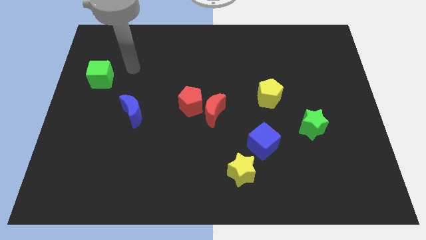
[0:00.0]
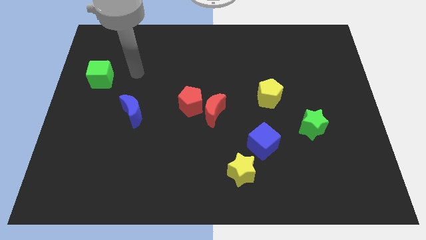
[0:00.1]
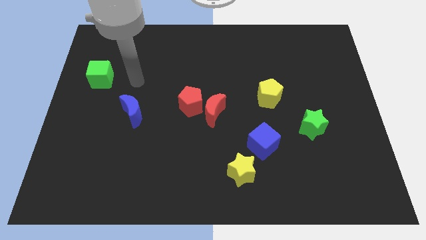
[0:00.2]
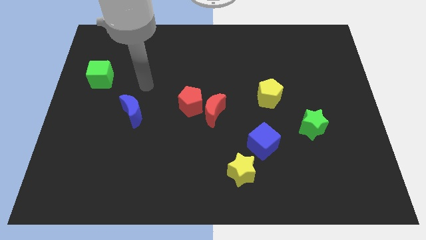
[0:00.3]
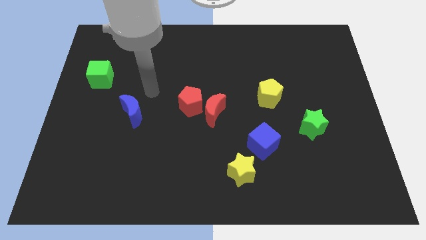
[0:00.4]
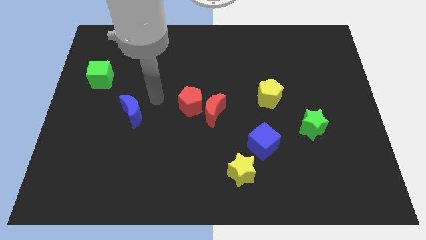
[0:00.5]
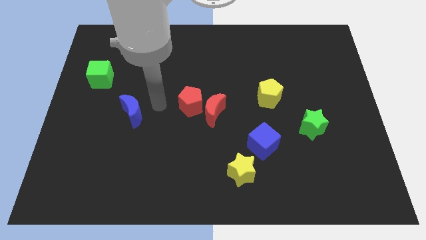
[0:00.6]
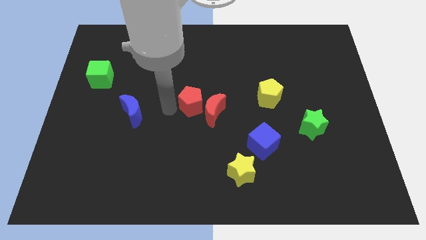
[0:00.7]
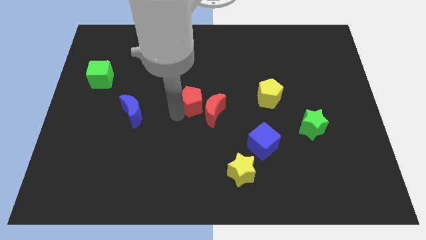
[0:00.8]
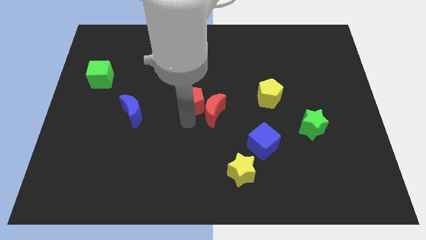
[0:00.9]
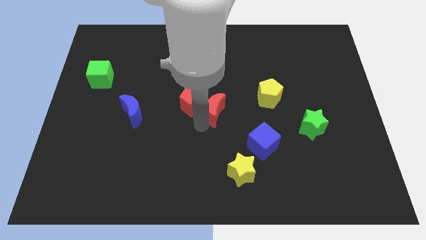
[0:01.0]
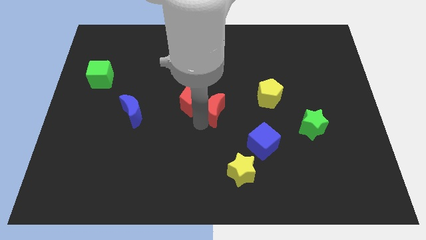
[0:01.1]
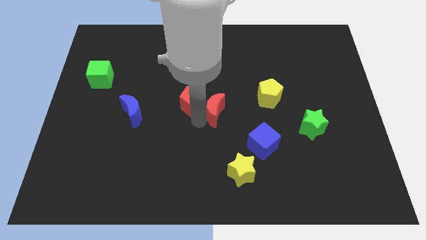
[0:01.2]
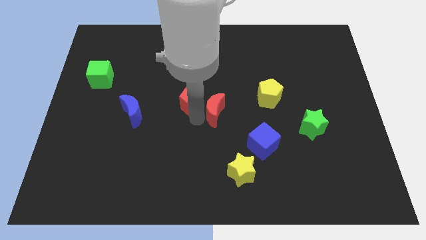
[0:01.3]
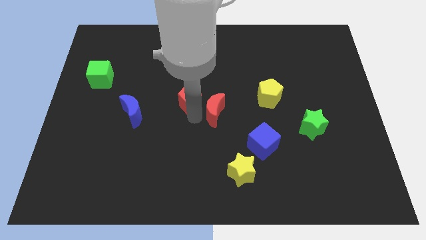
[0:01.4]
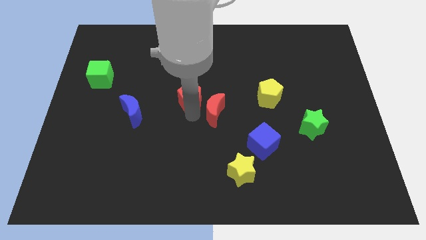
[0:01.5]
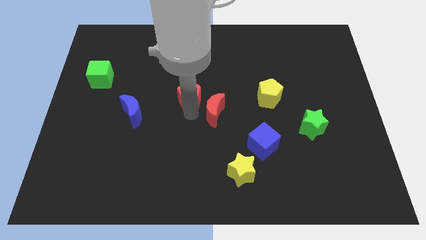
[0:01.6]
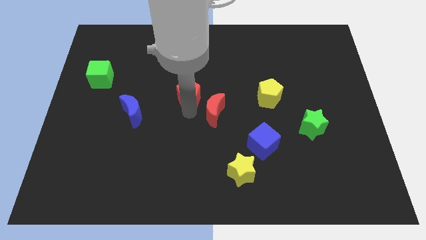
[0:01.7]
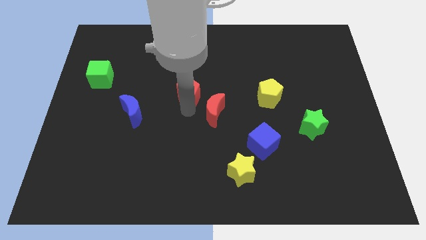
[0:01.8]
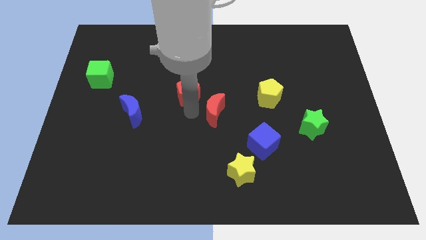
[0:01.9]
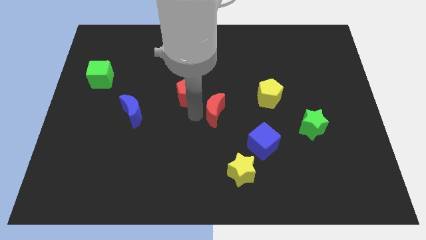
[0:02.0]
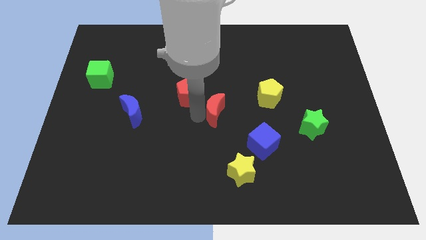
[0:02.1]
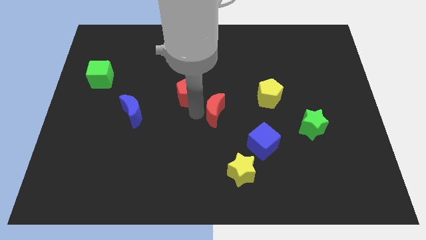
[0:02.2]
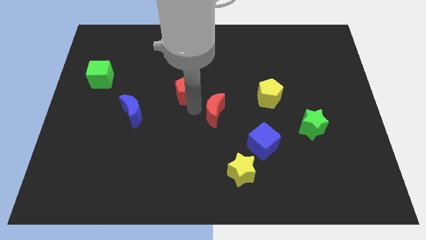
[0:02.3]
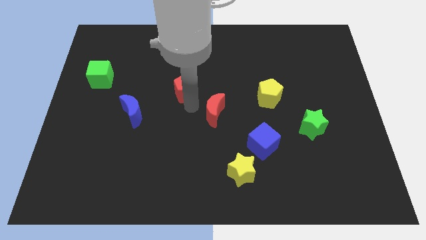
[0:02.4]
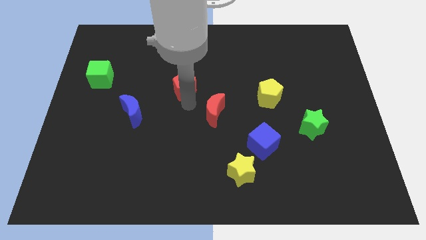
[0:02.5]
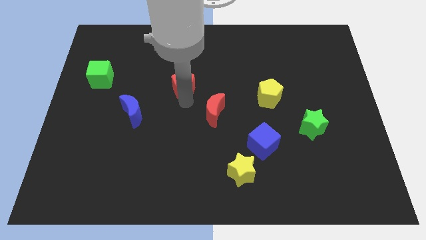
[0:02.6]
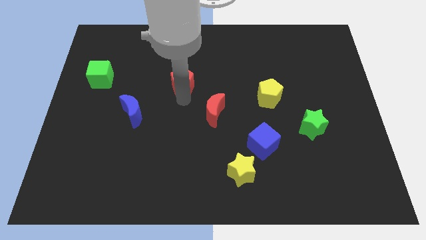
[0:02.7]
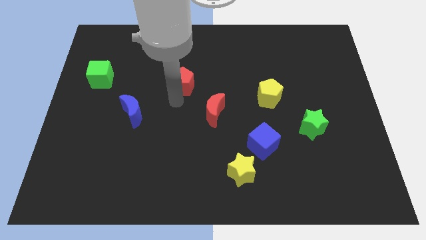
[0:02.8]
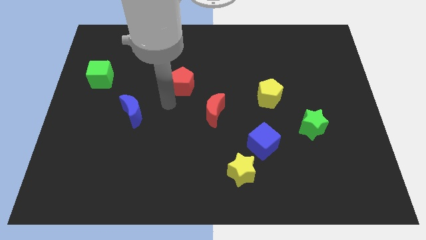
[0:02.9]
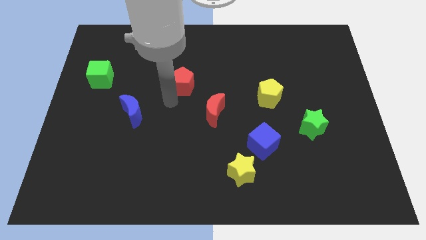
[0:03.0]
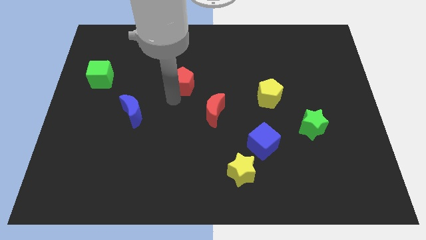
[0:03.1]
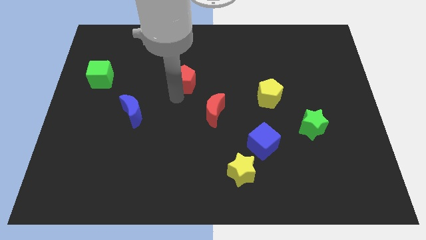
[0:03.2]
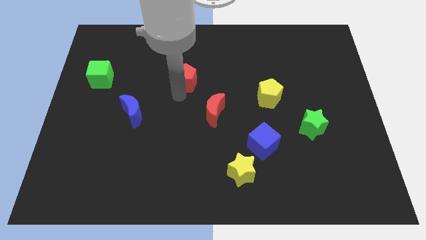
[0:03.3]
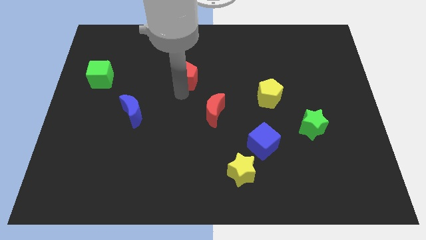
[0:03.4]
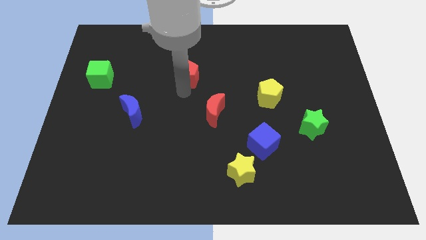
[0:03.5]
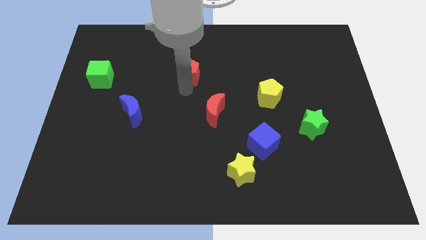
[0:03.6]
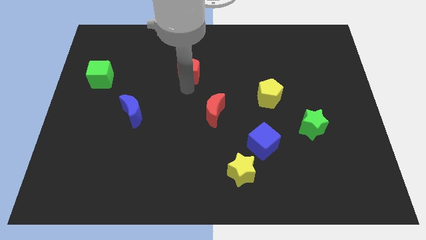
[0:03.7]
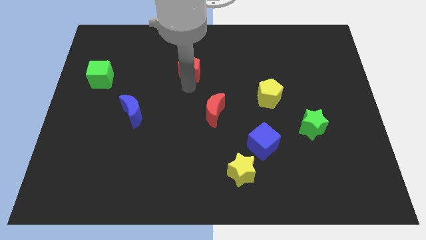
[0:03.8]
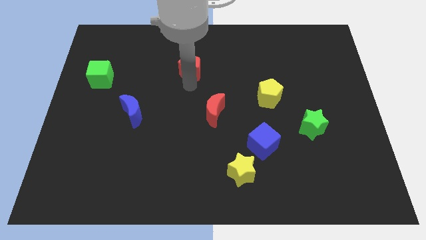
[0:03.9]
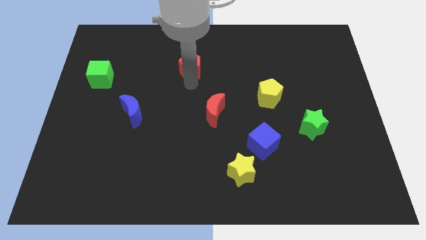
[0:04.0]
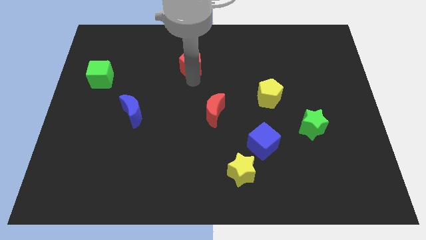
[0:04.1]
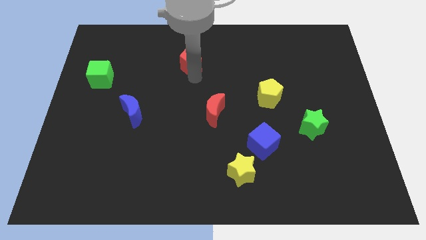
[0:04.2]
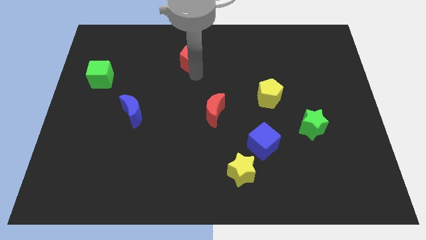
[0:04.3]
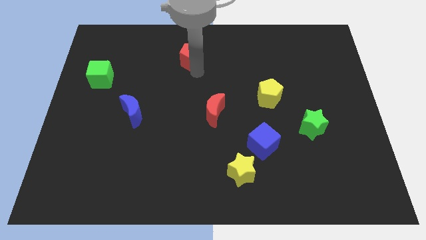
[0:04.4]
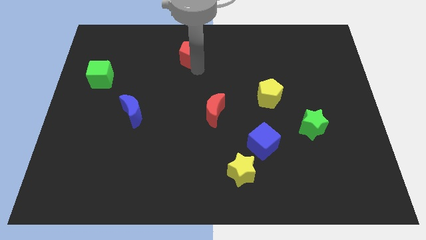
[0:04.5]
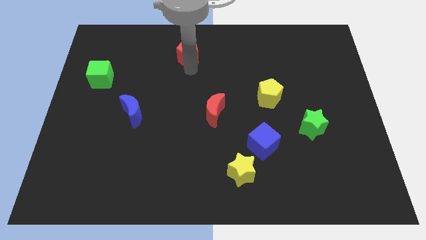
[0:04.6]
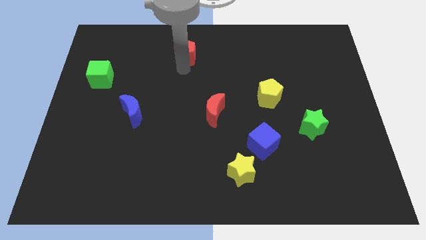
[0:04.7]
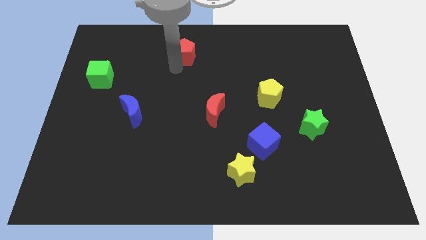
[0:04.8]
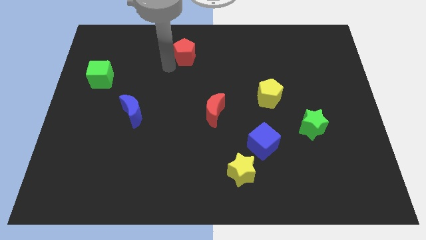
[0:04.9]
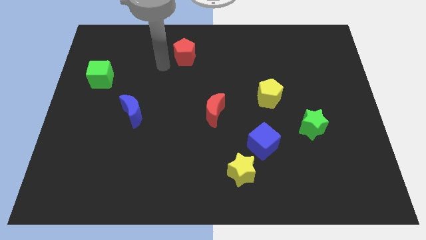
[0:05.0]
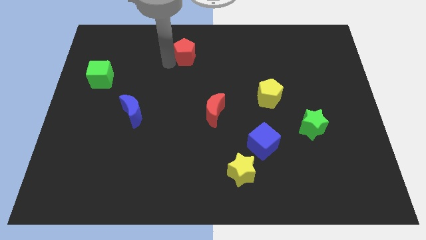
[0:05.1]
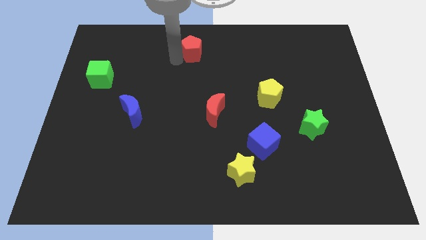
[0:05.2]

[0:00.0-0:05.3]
push the red pentagon to the top side

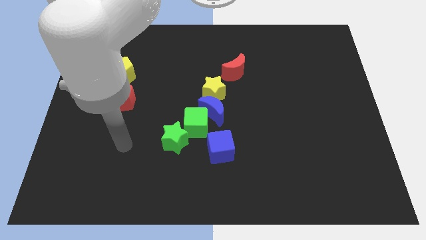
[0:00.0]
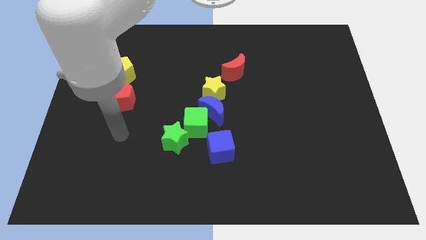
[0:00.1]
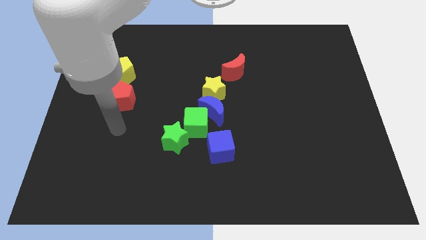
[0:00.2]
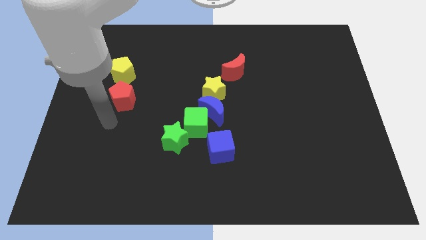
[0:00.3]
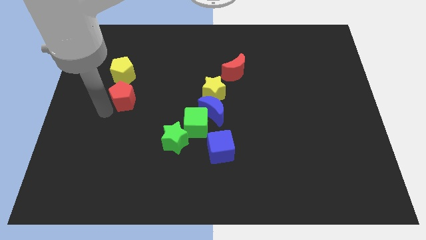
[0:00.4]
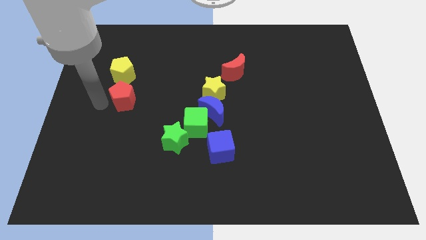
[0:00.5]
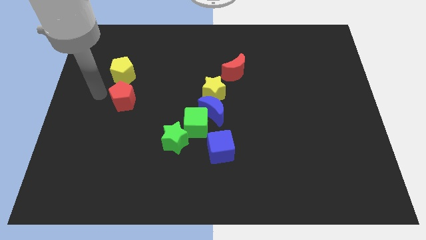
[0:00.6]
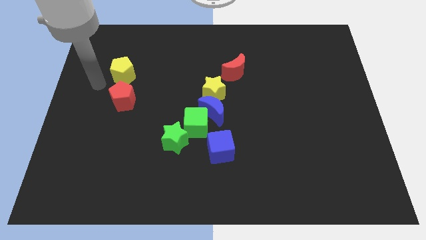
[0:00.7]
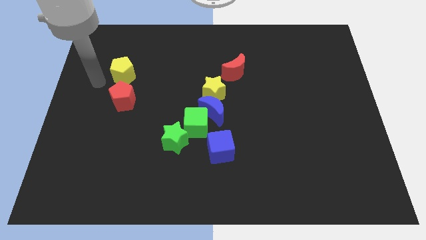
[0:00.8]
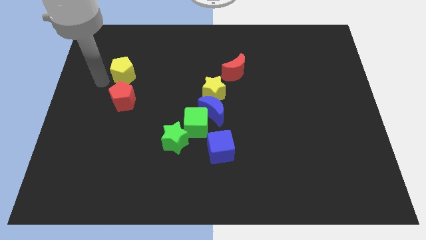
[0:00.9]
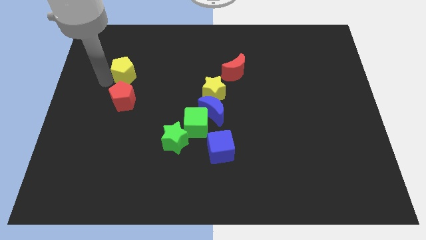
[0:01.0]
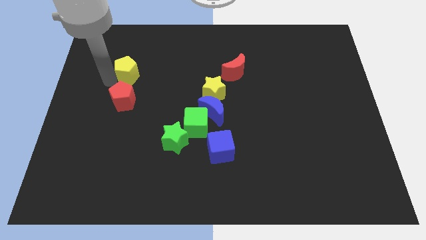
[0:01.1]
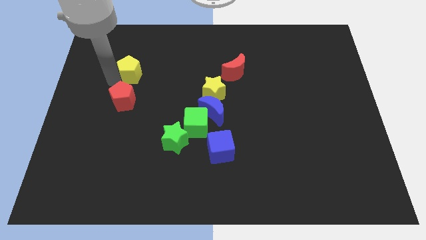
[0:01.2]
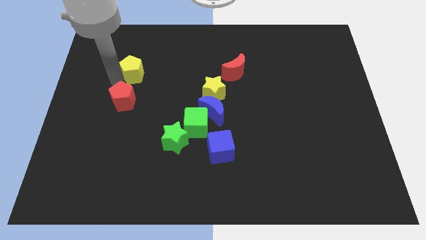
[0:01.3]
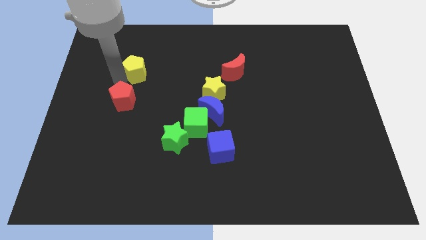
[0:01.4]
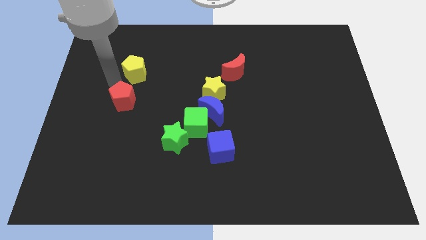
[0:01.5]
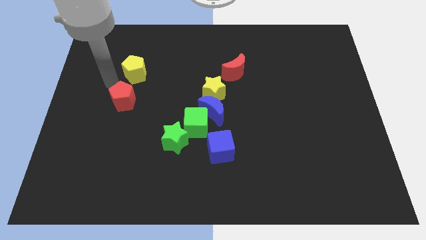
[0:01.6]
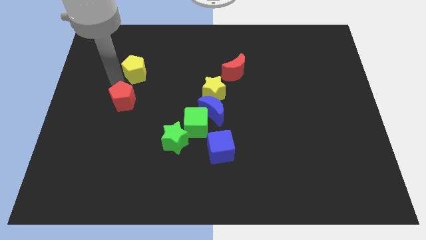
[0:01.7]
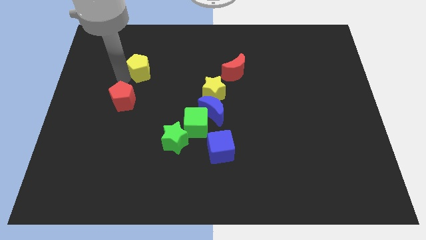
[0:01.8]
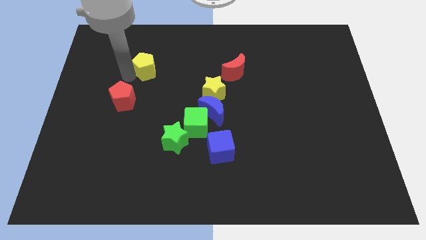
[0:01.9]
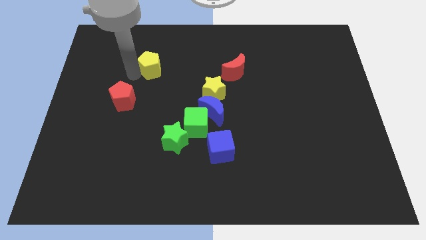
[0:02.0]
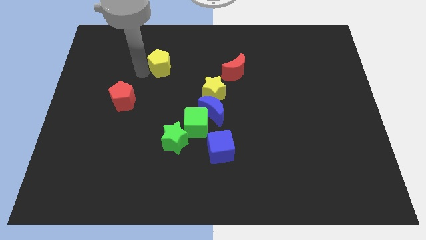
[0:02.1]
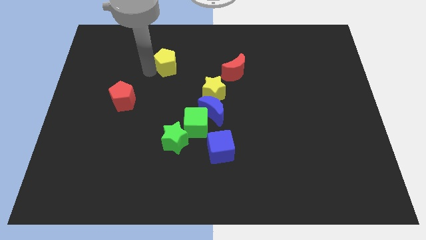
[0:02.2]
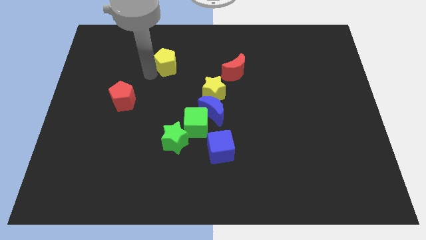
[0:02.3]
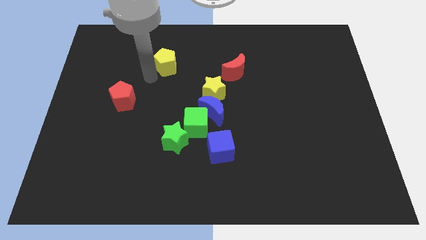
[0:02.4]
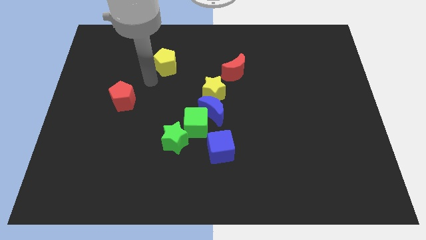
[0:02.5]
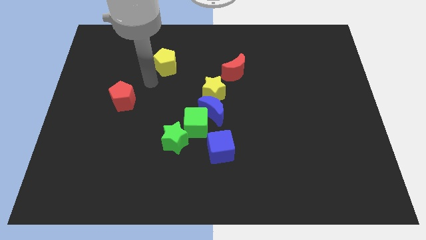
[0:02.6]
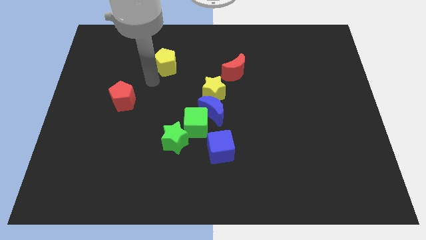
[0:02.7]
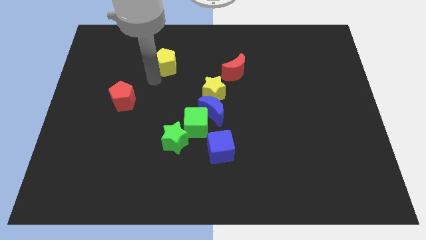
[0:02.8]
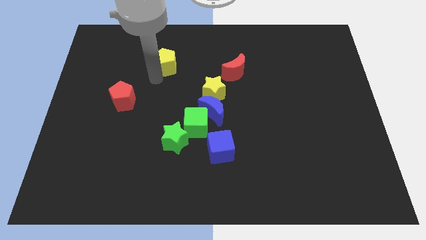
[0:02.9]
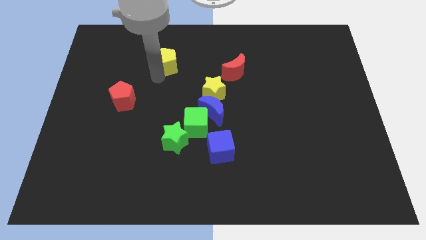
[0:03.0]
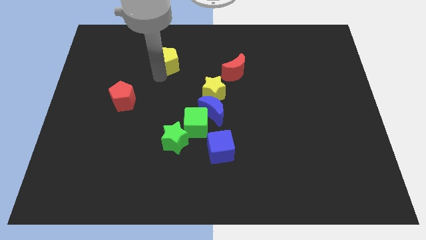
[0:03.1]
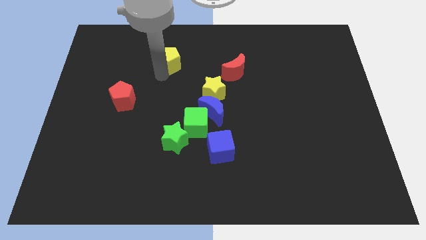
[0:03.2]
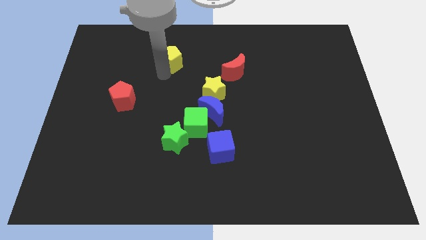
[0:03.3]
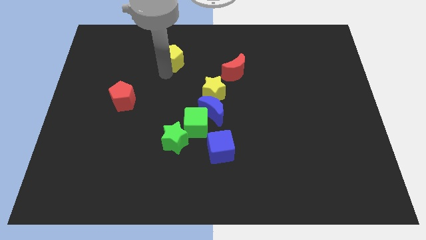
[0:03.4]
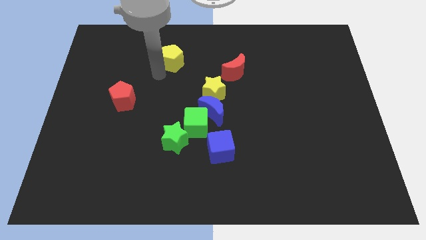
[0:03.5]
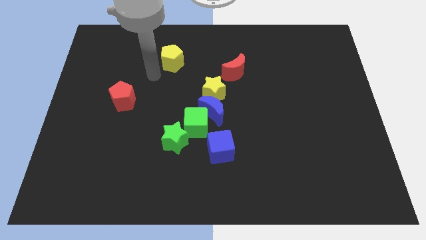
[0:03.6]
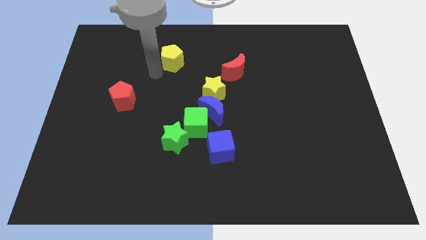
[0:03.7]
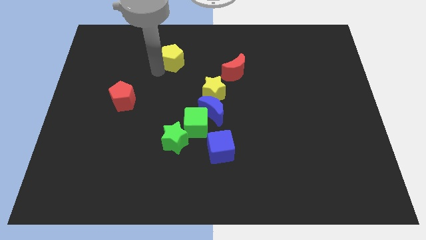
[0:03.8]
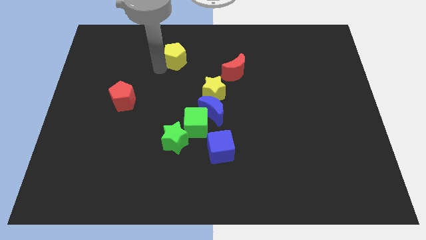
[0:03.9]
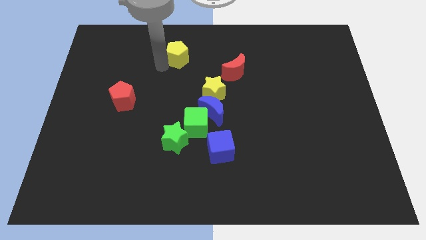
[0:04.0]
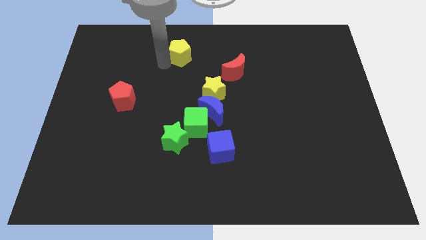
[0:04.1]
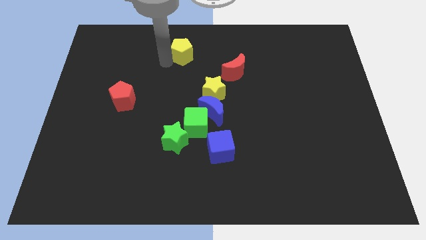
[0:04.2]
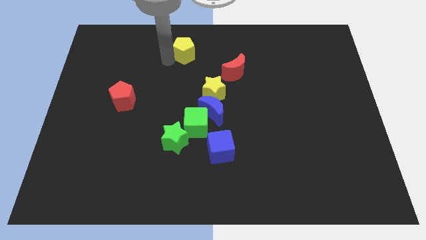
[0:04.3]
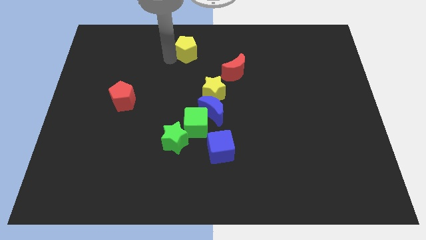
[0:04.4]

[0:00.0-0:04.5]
move the yellow pentagon to the top side
